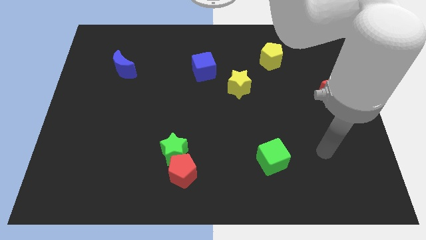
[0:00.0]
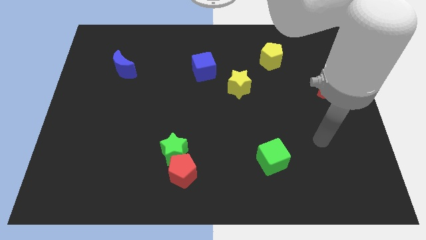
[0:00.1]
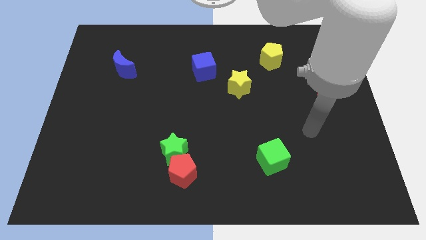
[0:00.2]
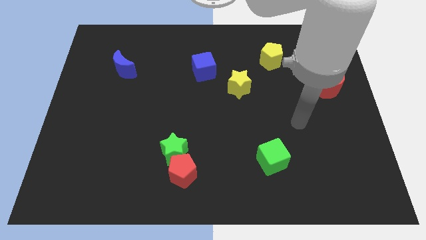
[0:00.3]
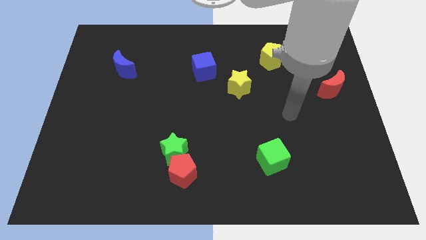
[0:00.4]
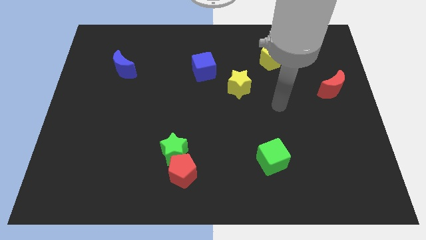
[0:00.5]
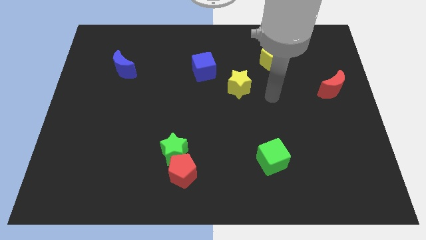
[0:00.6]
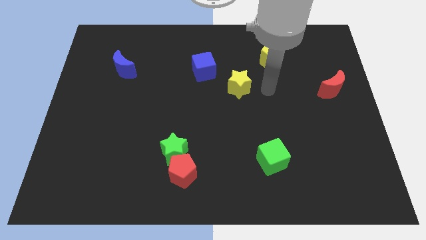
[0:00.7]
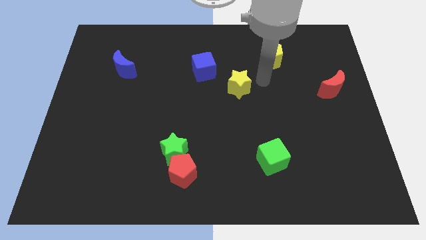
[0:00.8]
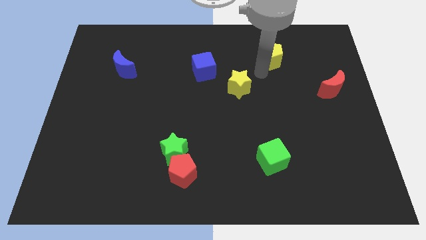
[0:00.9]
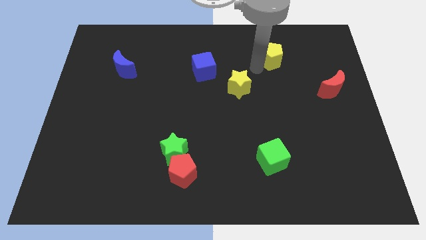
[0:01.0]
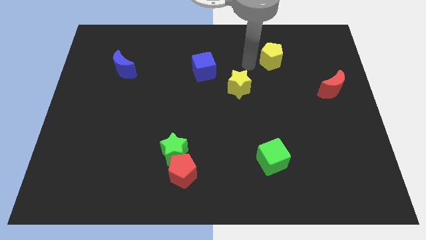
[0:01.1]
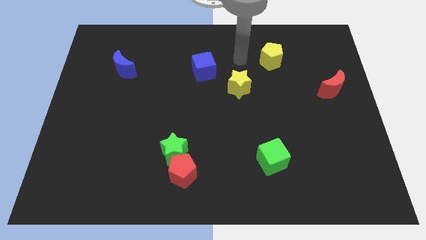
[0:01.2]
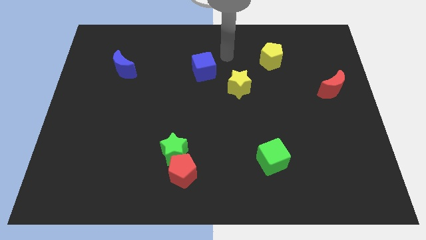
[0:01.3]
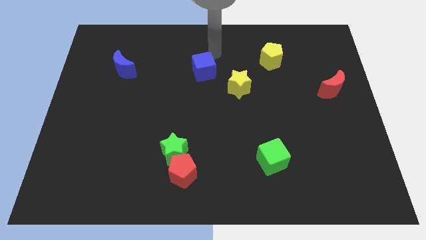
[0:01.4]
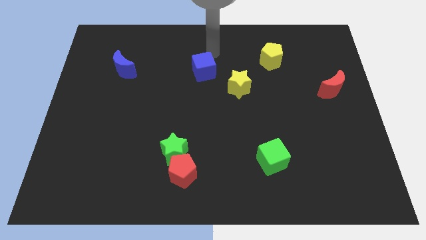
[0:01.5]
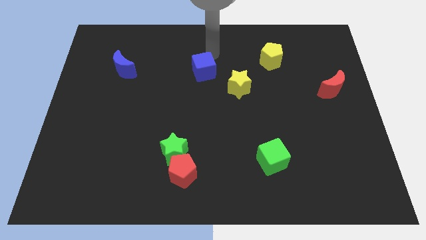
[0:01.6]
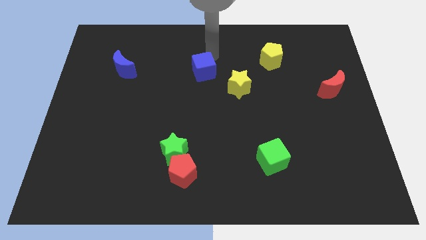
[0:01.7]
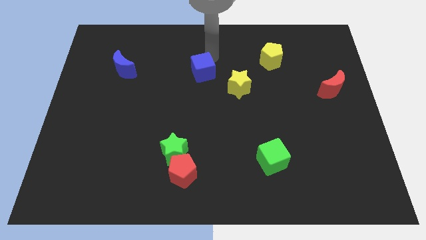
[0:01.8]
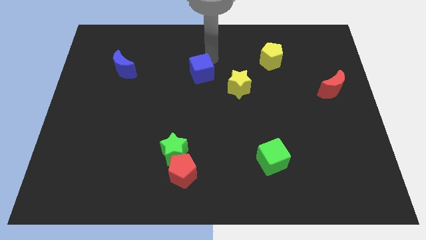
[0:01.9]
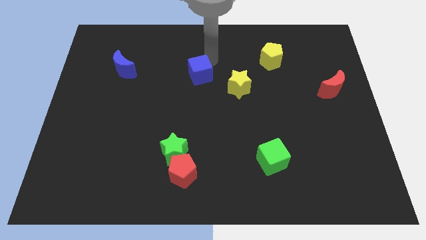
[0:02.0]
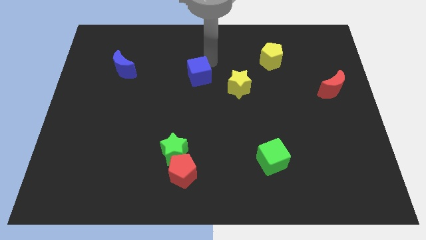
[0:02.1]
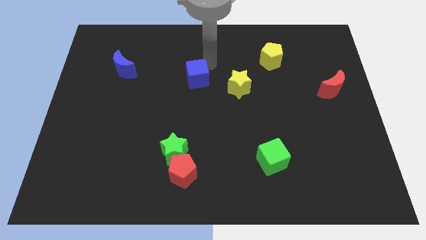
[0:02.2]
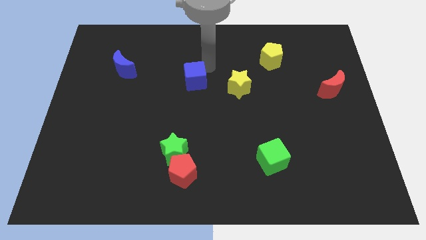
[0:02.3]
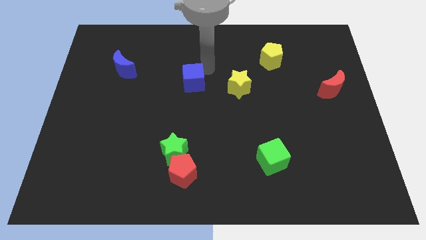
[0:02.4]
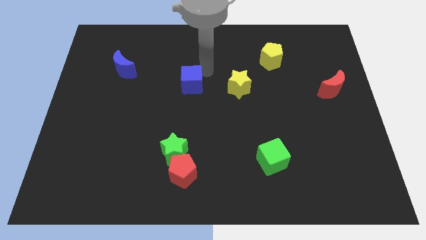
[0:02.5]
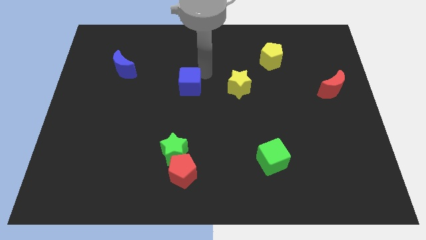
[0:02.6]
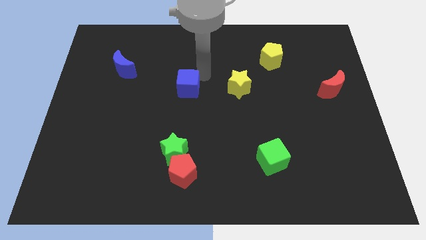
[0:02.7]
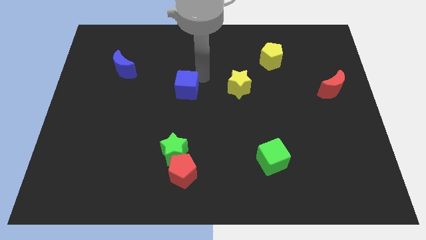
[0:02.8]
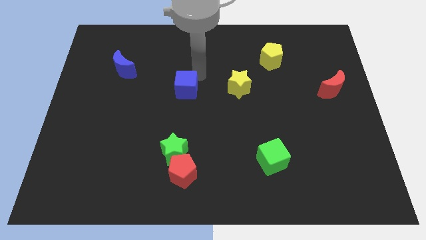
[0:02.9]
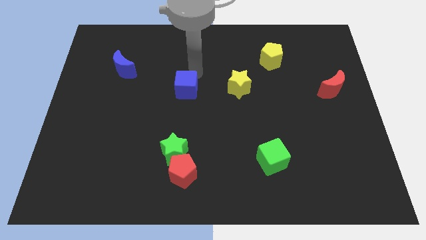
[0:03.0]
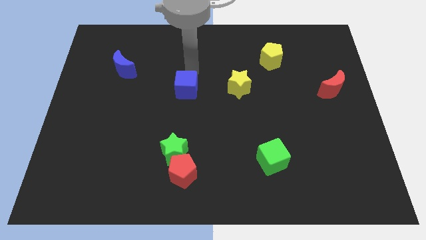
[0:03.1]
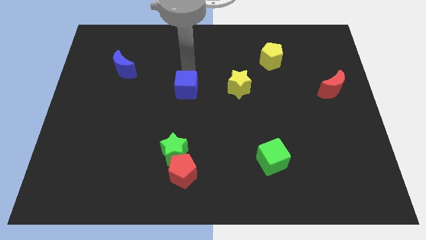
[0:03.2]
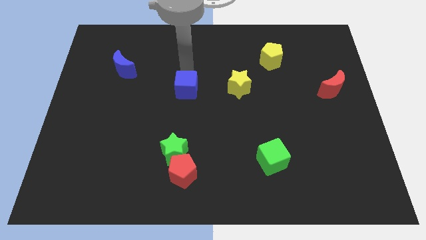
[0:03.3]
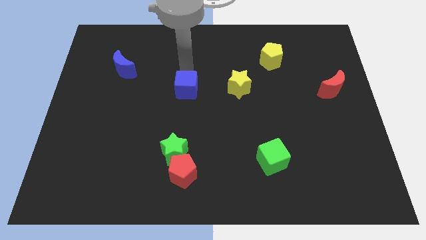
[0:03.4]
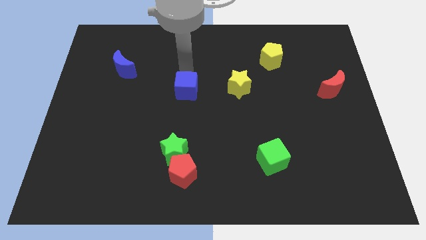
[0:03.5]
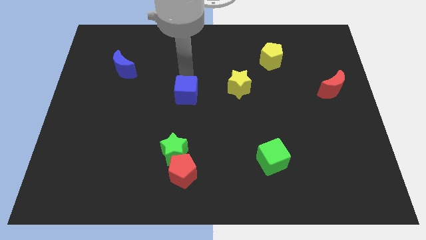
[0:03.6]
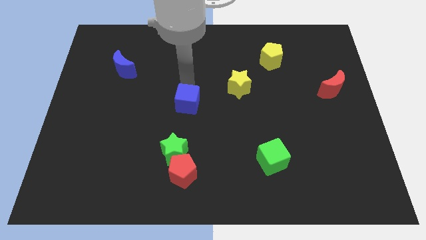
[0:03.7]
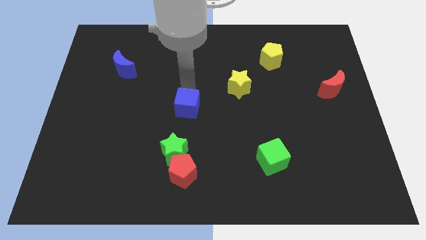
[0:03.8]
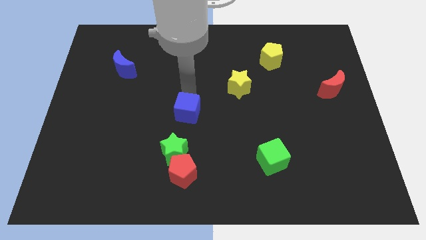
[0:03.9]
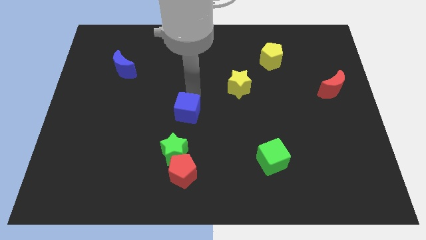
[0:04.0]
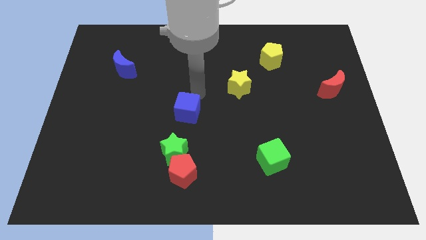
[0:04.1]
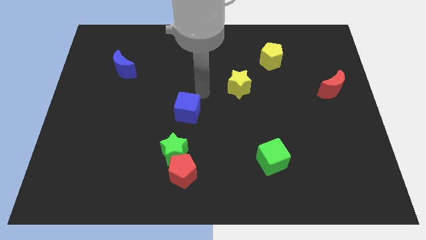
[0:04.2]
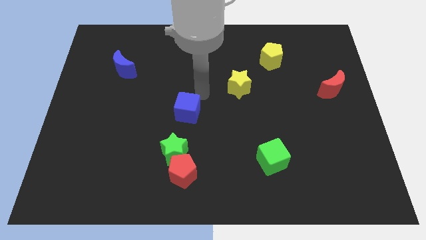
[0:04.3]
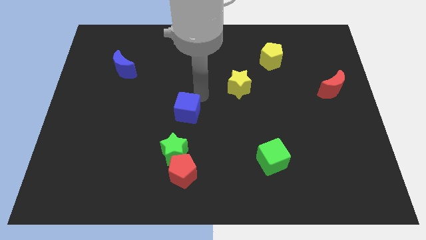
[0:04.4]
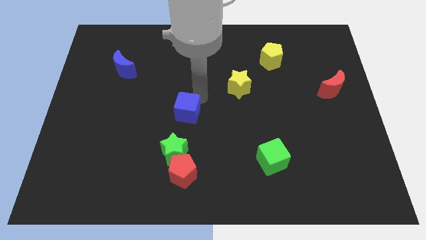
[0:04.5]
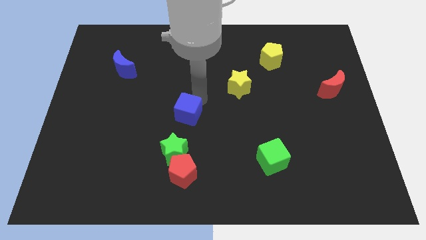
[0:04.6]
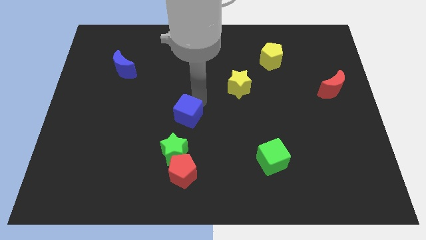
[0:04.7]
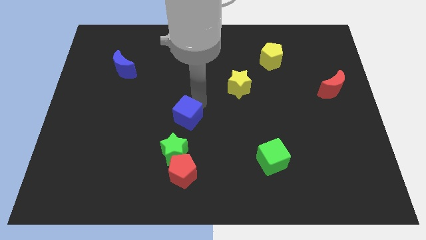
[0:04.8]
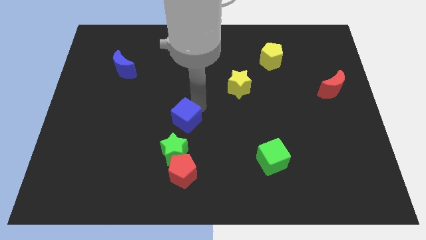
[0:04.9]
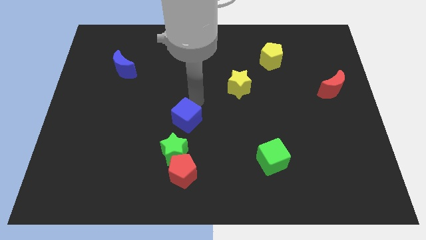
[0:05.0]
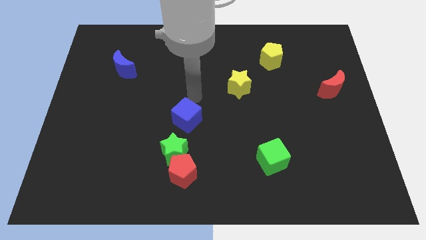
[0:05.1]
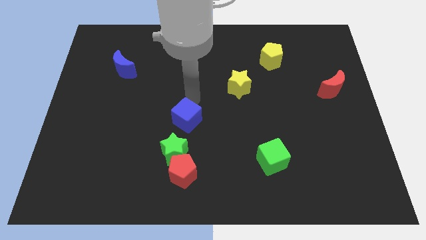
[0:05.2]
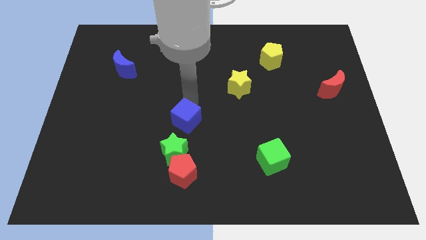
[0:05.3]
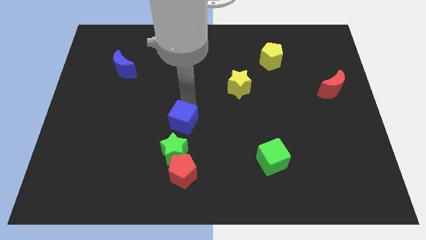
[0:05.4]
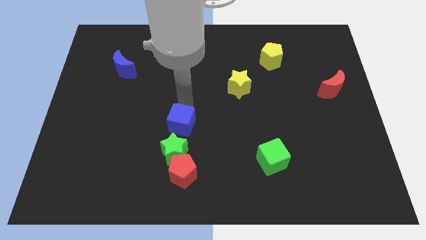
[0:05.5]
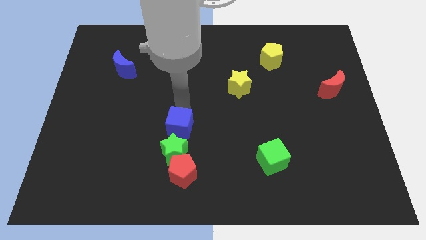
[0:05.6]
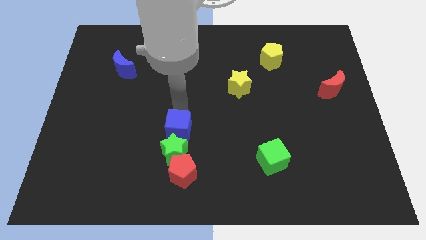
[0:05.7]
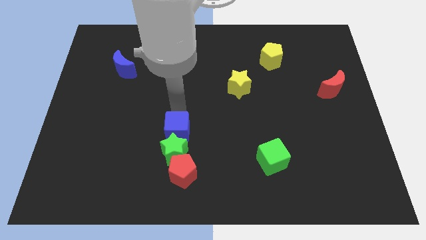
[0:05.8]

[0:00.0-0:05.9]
put the blue cube to the green star

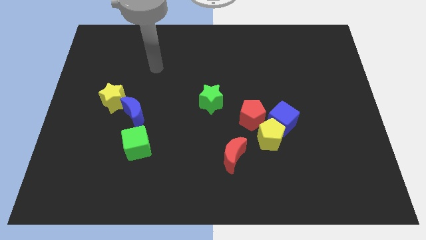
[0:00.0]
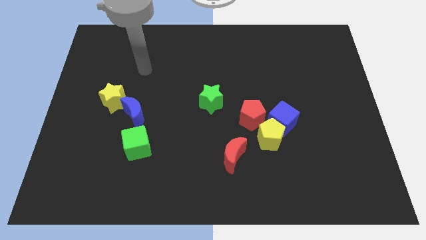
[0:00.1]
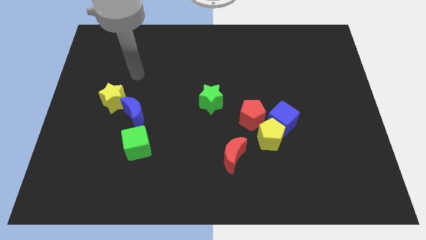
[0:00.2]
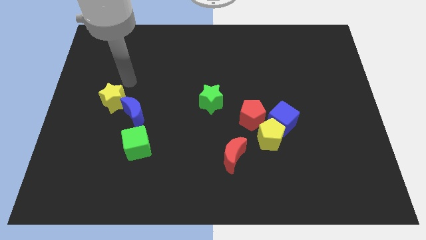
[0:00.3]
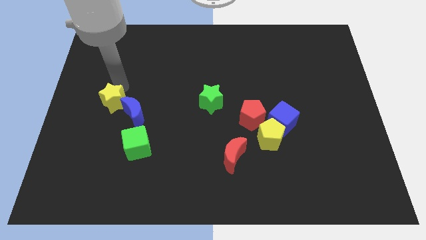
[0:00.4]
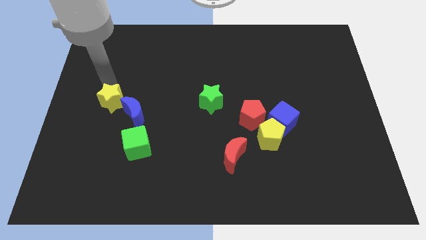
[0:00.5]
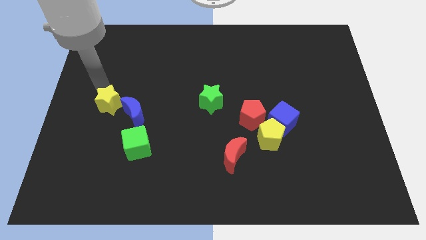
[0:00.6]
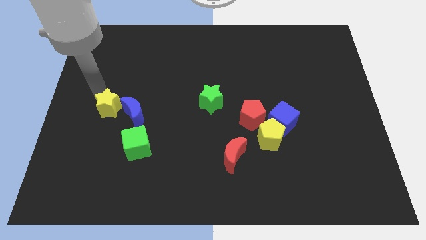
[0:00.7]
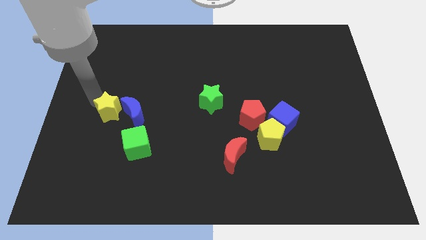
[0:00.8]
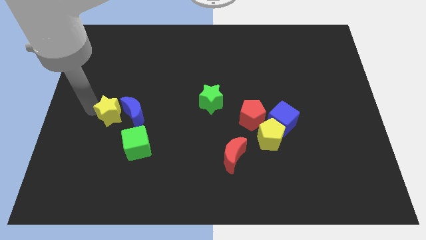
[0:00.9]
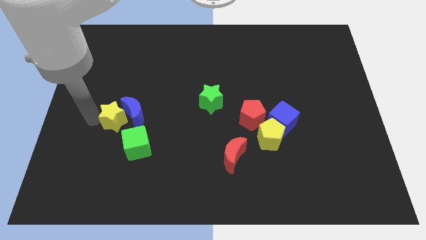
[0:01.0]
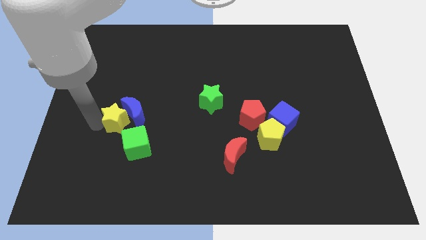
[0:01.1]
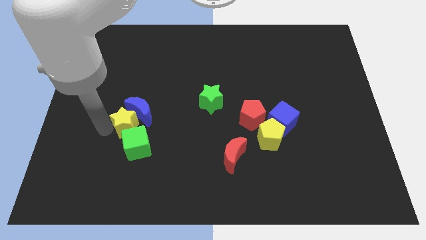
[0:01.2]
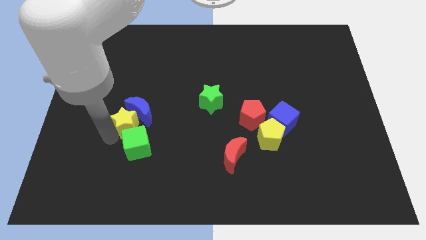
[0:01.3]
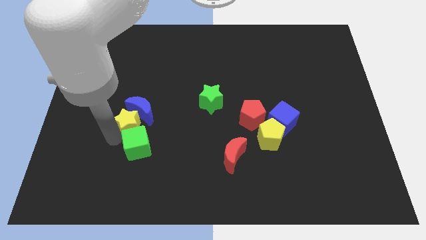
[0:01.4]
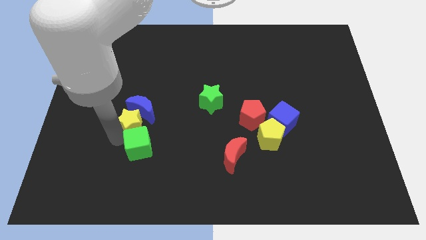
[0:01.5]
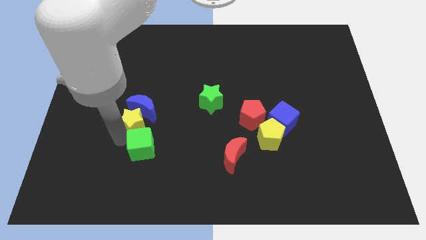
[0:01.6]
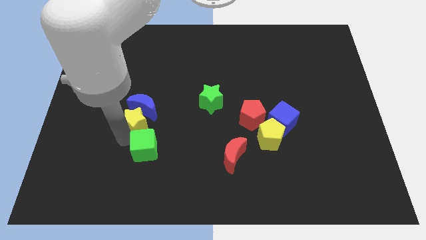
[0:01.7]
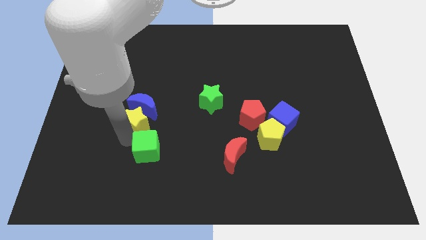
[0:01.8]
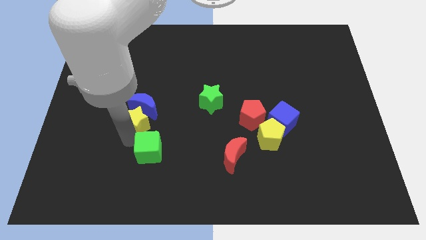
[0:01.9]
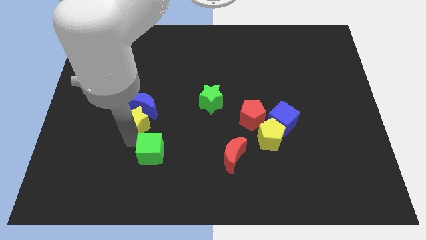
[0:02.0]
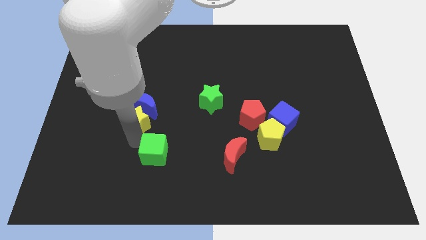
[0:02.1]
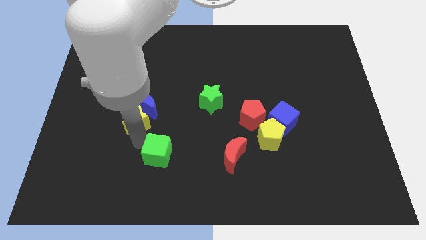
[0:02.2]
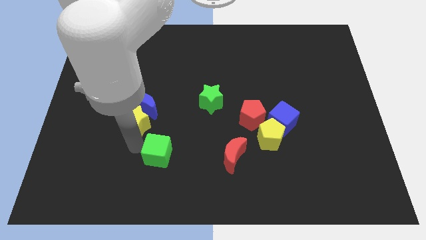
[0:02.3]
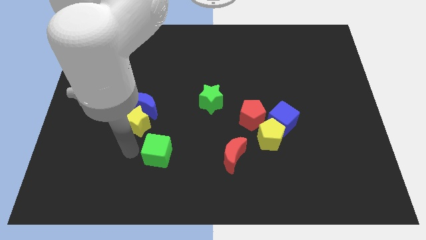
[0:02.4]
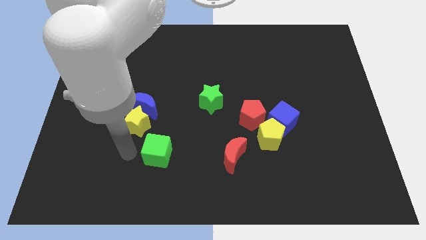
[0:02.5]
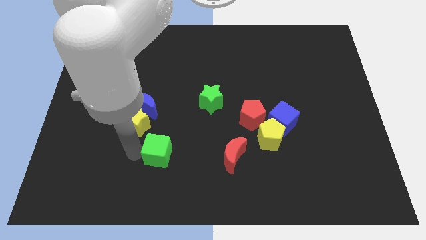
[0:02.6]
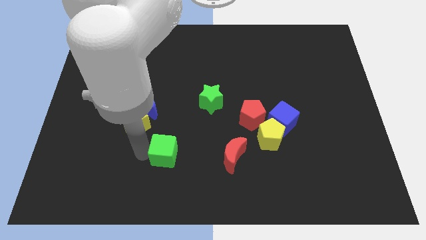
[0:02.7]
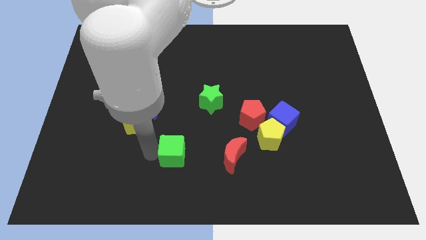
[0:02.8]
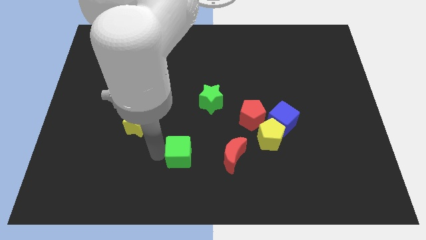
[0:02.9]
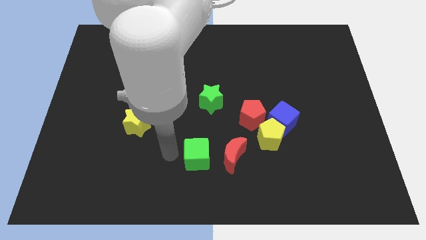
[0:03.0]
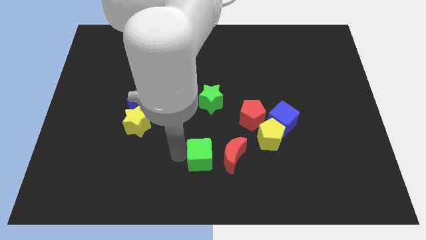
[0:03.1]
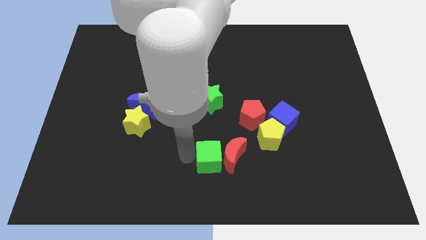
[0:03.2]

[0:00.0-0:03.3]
put the green cube close to the red moon
